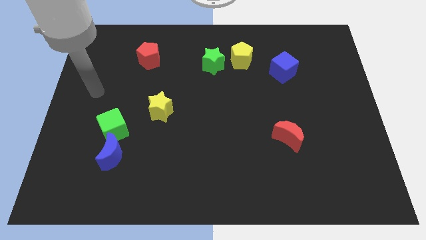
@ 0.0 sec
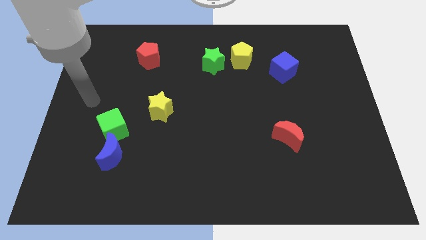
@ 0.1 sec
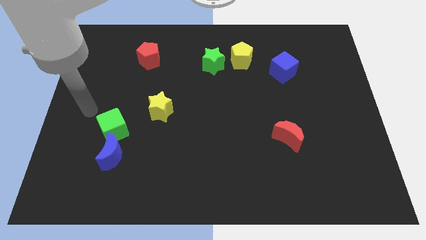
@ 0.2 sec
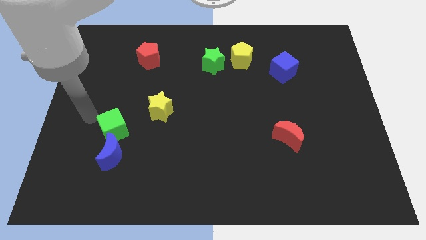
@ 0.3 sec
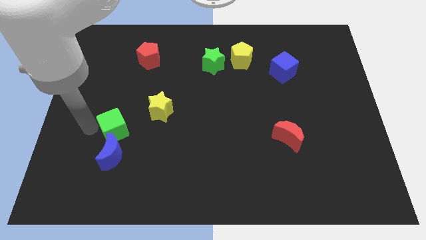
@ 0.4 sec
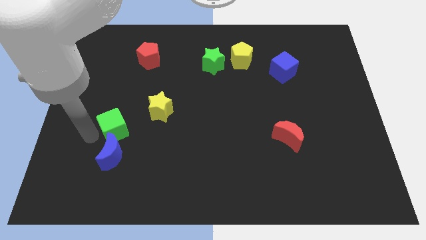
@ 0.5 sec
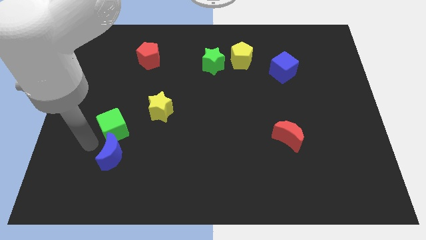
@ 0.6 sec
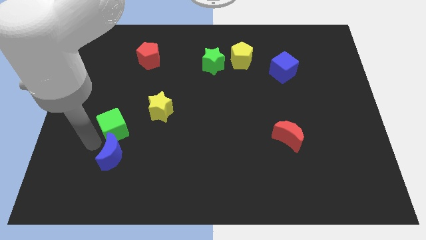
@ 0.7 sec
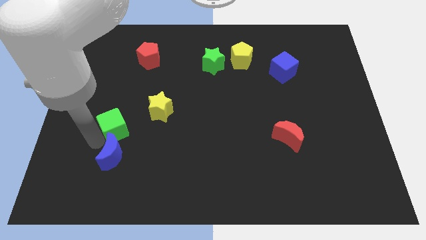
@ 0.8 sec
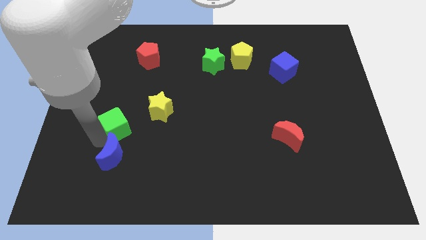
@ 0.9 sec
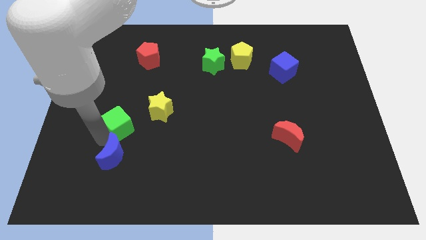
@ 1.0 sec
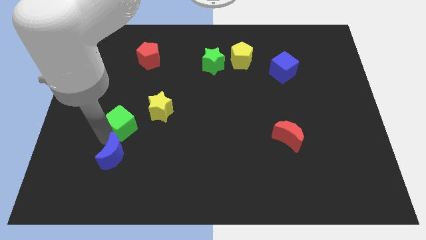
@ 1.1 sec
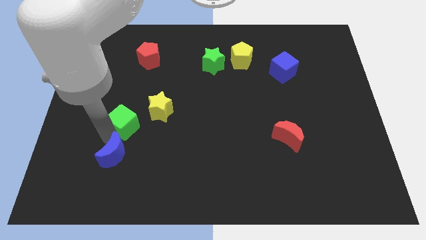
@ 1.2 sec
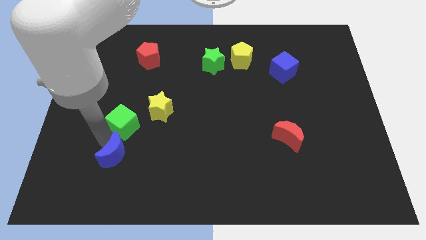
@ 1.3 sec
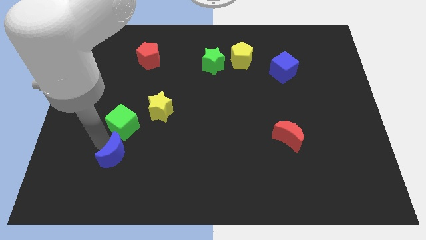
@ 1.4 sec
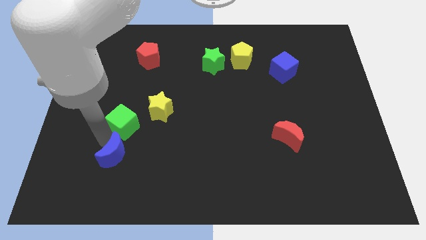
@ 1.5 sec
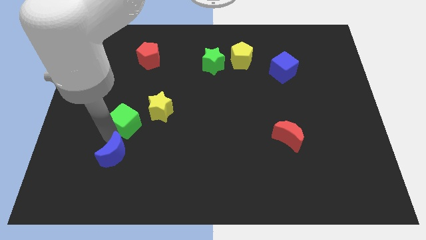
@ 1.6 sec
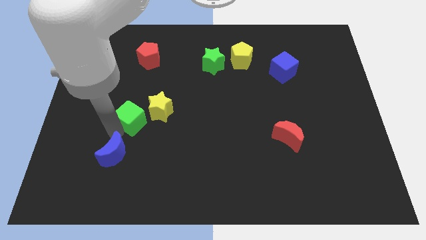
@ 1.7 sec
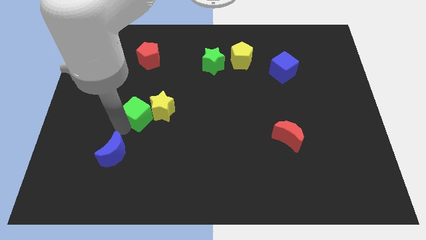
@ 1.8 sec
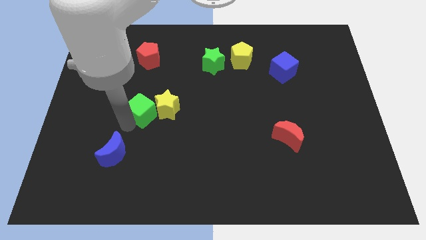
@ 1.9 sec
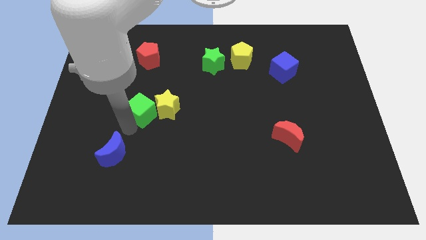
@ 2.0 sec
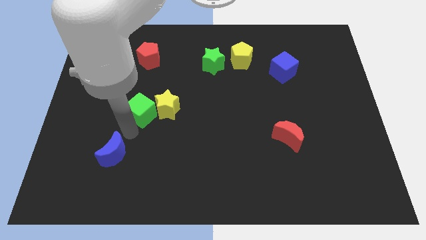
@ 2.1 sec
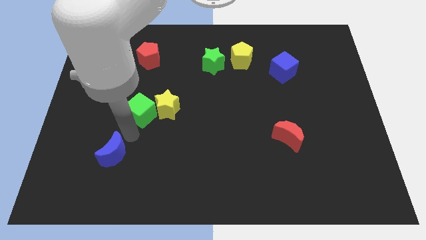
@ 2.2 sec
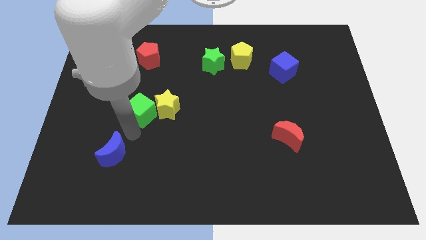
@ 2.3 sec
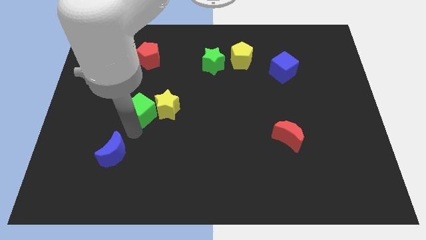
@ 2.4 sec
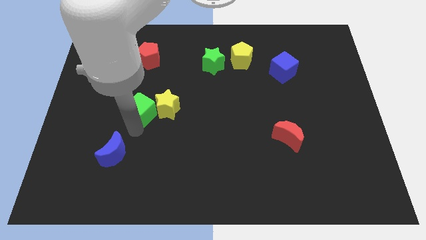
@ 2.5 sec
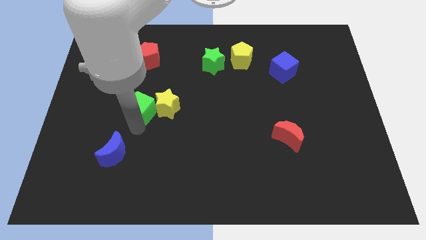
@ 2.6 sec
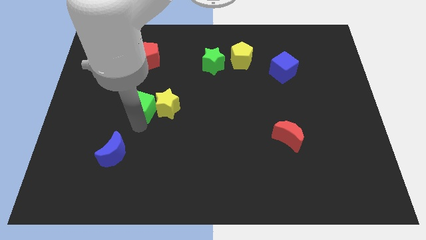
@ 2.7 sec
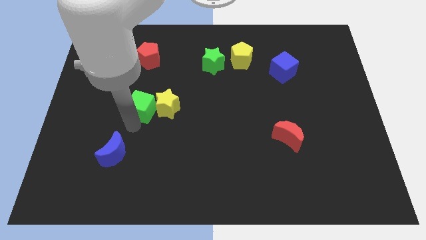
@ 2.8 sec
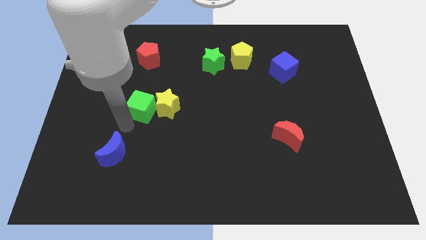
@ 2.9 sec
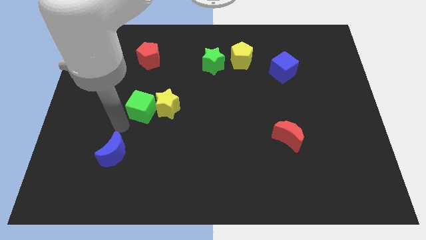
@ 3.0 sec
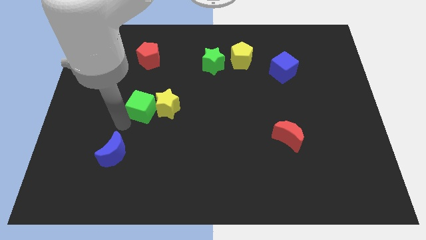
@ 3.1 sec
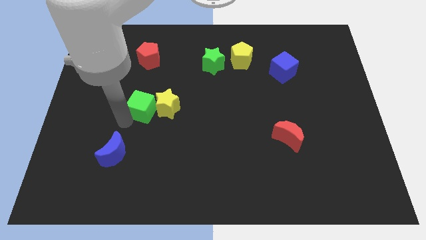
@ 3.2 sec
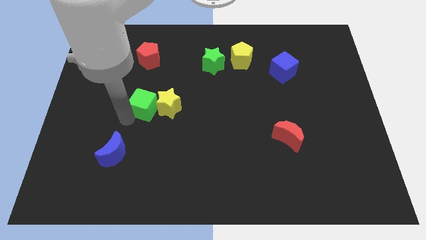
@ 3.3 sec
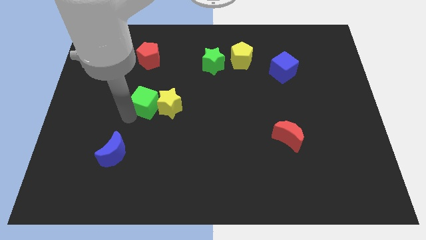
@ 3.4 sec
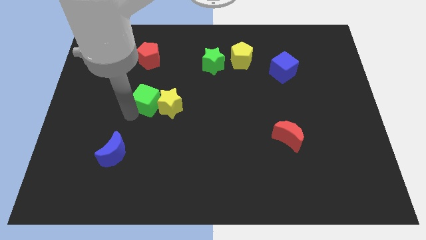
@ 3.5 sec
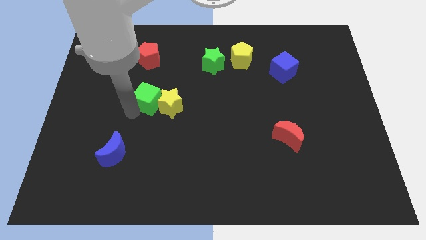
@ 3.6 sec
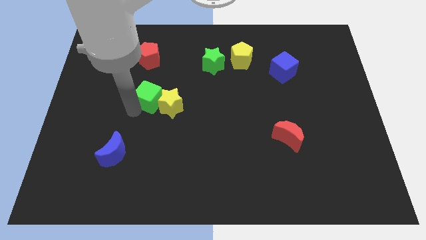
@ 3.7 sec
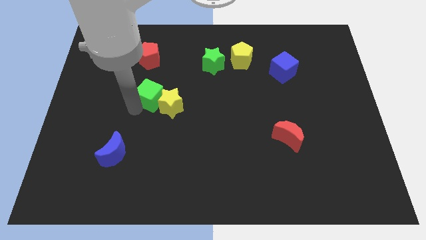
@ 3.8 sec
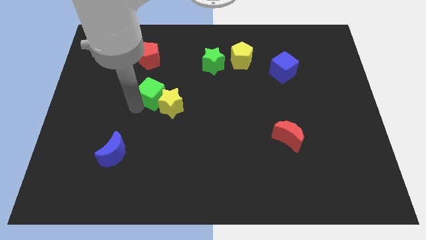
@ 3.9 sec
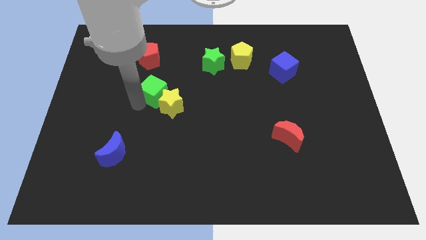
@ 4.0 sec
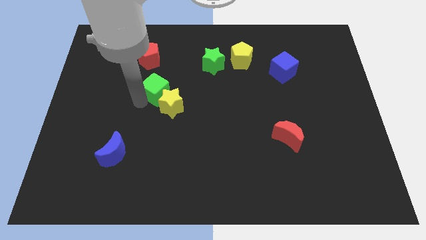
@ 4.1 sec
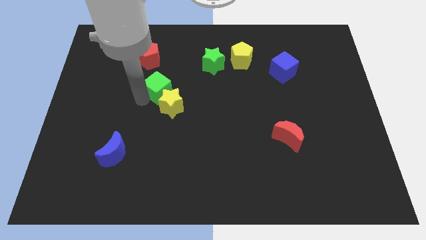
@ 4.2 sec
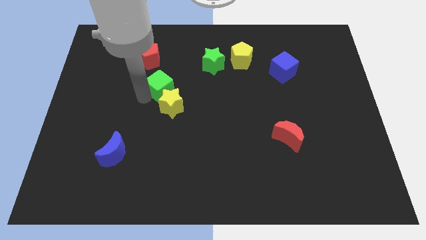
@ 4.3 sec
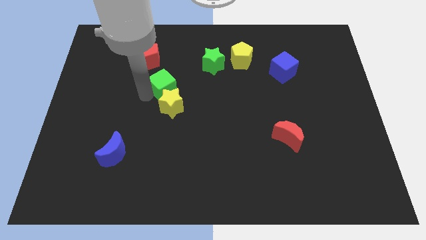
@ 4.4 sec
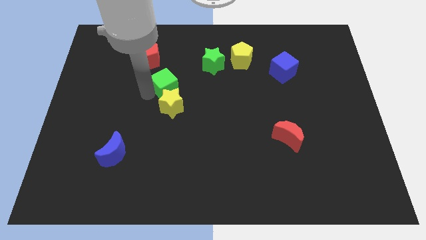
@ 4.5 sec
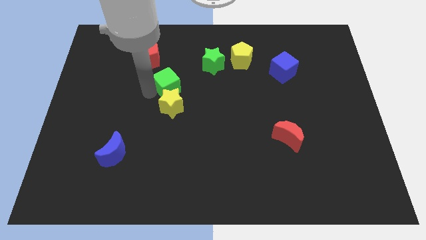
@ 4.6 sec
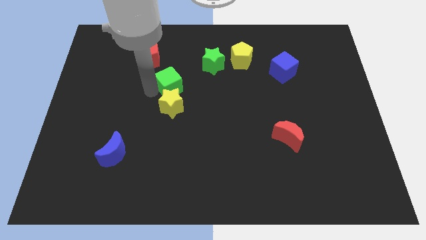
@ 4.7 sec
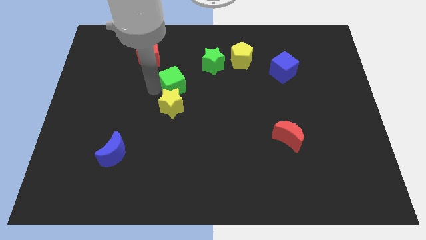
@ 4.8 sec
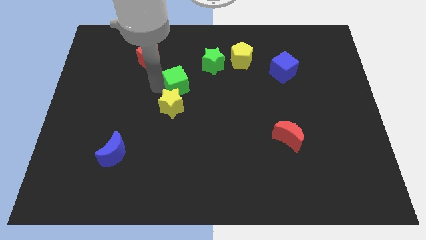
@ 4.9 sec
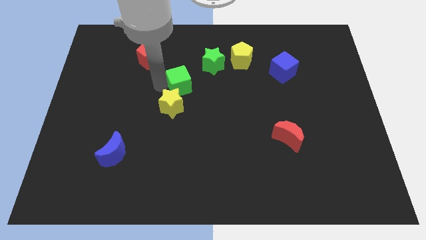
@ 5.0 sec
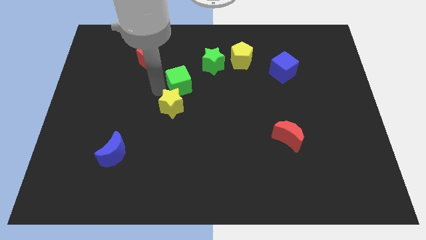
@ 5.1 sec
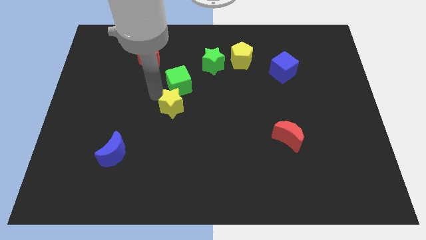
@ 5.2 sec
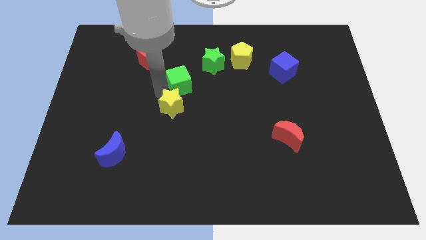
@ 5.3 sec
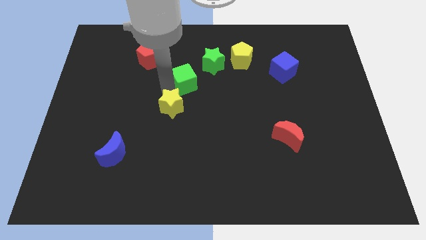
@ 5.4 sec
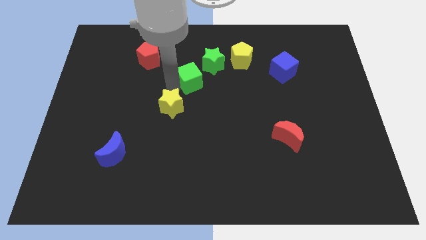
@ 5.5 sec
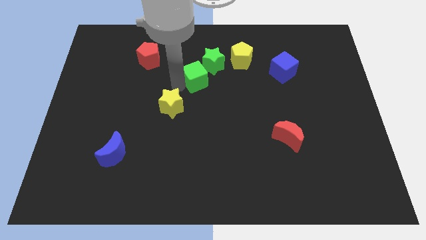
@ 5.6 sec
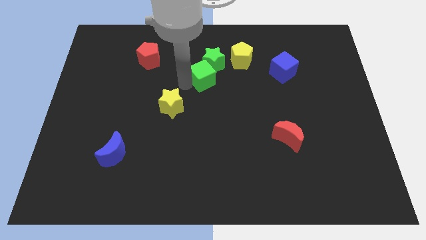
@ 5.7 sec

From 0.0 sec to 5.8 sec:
push the green cube towards the green star

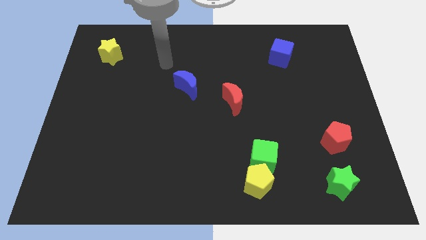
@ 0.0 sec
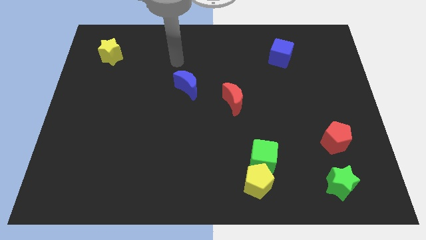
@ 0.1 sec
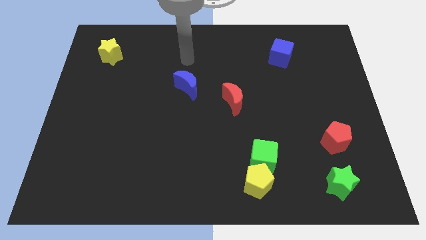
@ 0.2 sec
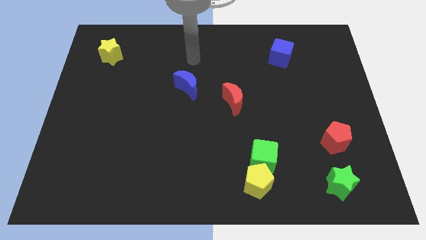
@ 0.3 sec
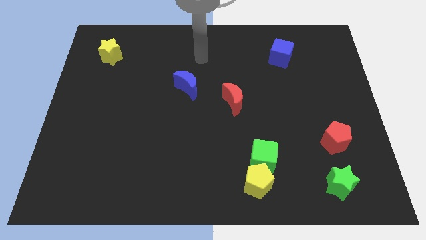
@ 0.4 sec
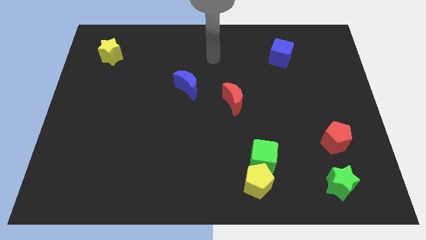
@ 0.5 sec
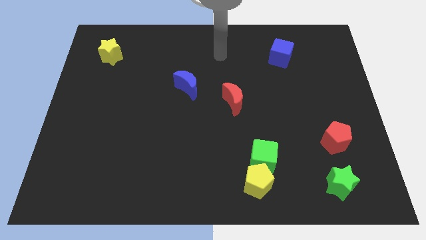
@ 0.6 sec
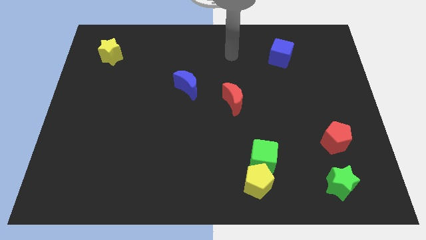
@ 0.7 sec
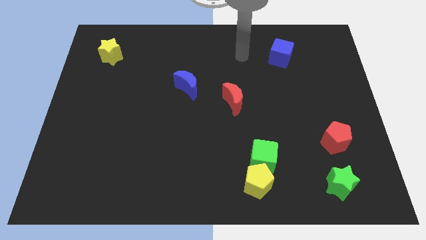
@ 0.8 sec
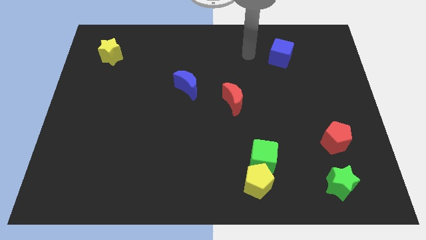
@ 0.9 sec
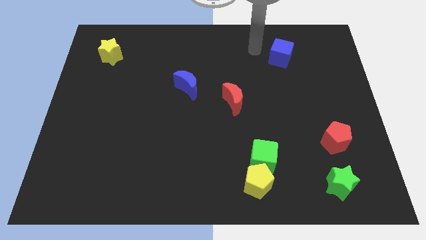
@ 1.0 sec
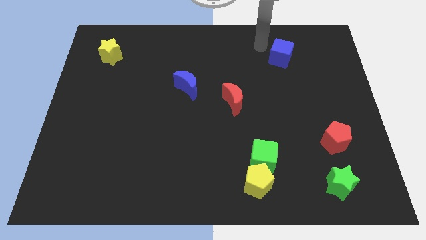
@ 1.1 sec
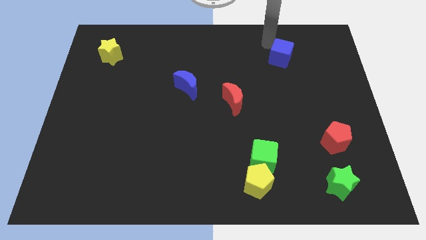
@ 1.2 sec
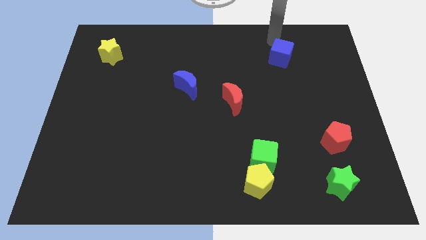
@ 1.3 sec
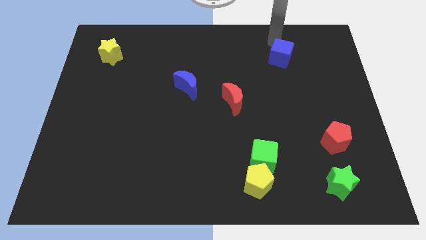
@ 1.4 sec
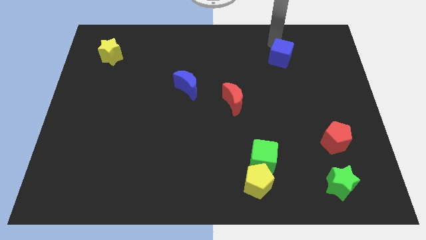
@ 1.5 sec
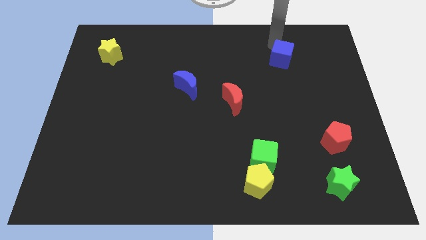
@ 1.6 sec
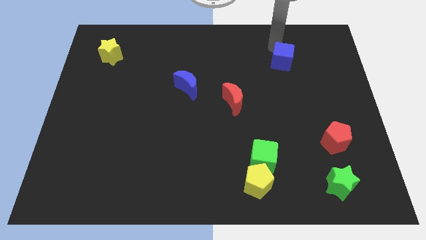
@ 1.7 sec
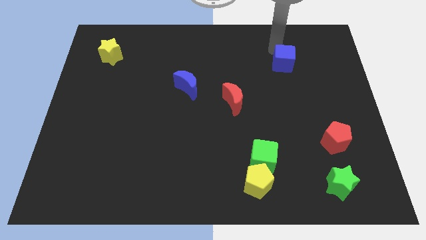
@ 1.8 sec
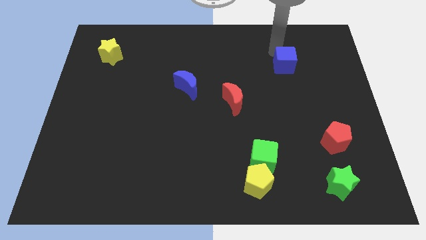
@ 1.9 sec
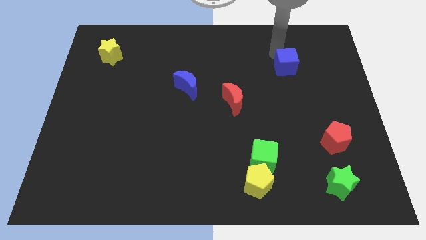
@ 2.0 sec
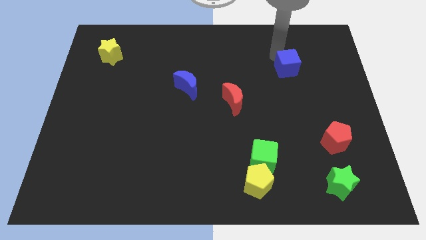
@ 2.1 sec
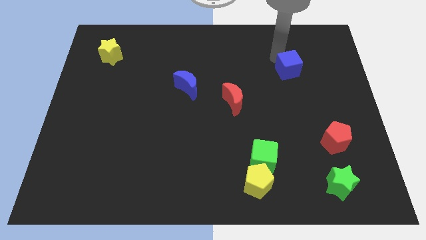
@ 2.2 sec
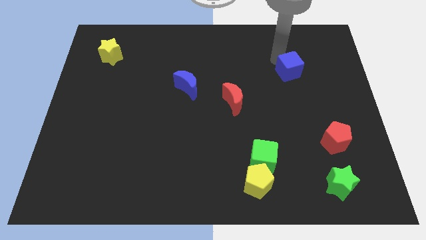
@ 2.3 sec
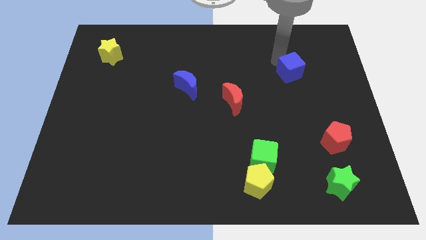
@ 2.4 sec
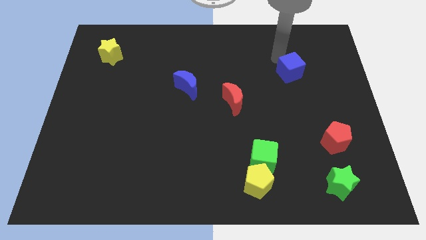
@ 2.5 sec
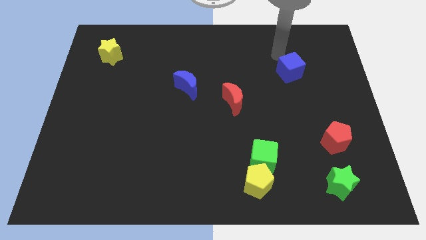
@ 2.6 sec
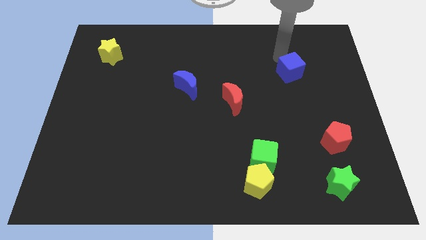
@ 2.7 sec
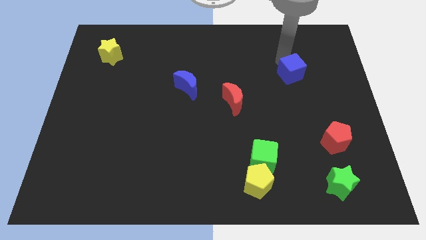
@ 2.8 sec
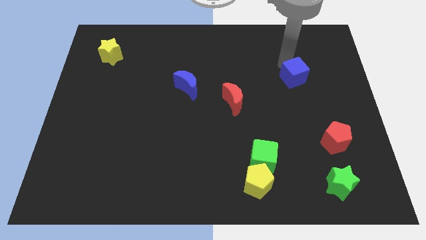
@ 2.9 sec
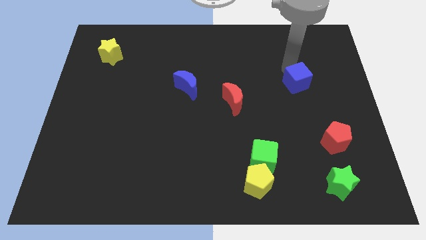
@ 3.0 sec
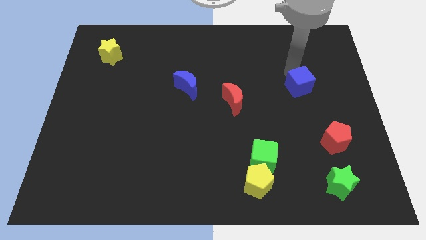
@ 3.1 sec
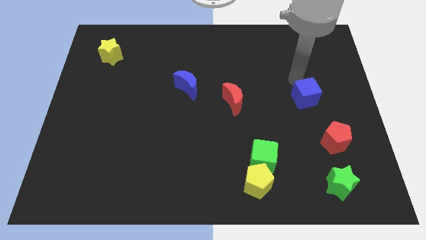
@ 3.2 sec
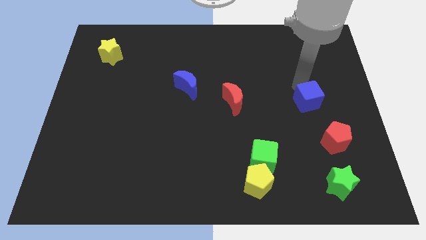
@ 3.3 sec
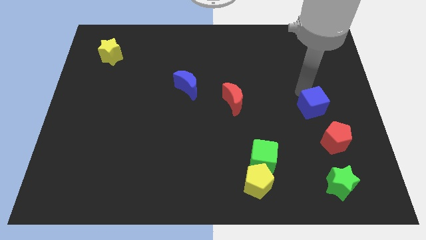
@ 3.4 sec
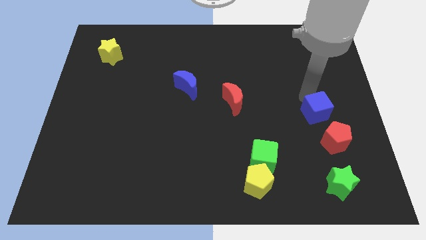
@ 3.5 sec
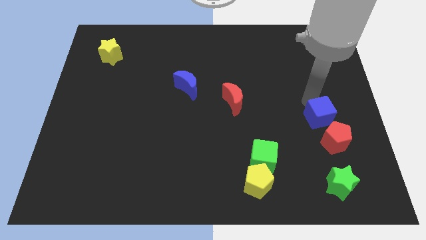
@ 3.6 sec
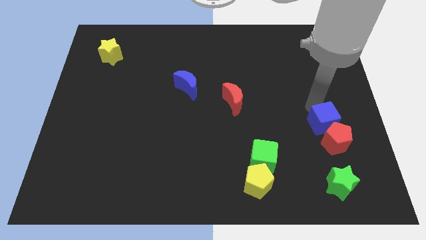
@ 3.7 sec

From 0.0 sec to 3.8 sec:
push the blue cube close to the red pentagon
